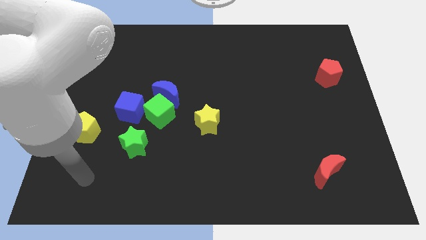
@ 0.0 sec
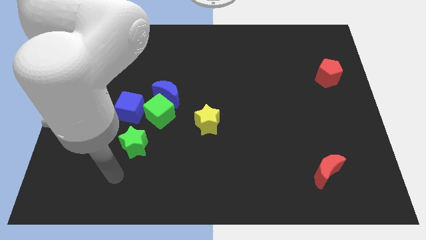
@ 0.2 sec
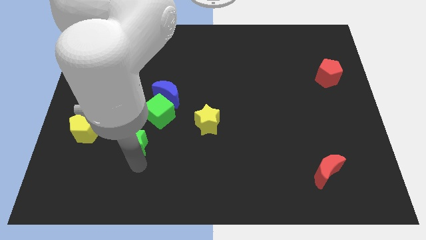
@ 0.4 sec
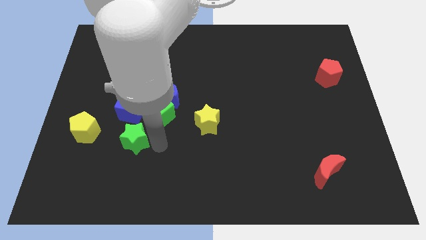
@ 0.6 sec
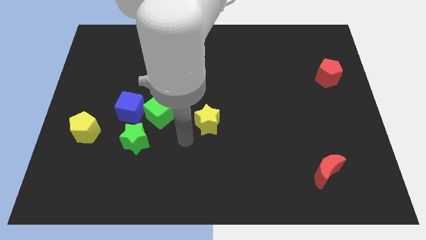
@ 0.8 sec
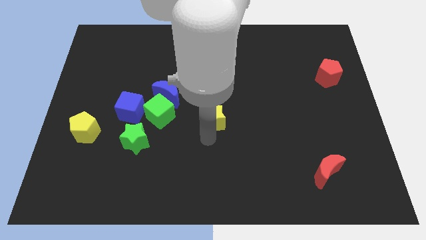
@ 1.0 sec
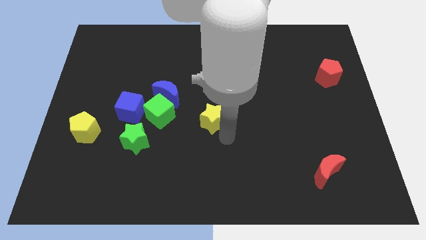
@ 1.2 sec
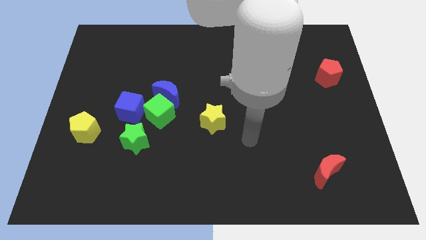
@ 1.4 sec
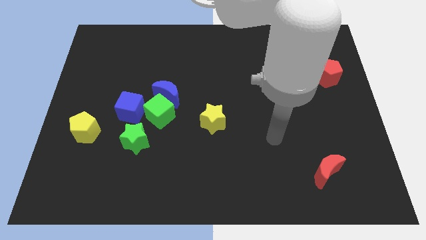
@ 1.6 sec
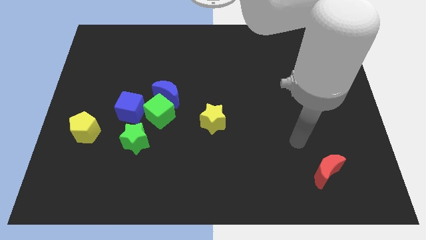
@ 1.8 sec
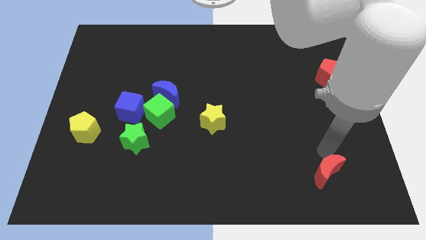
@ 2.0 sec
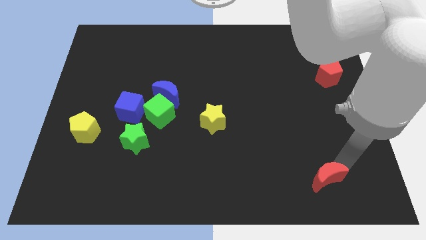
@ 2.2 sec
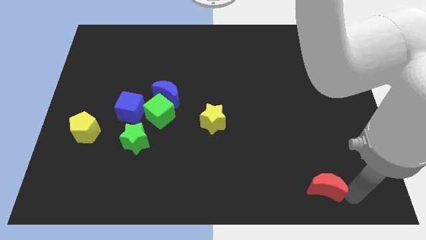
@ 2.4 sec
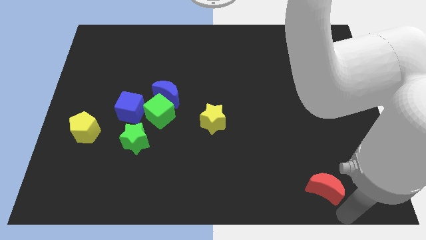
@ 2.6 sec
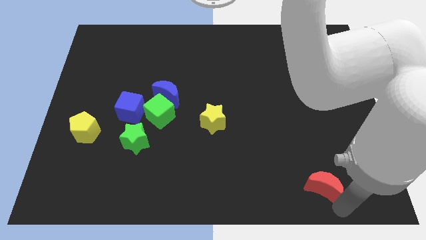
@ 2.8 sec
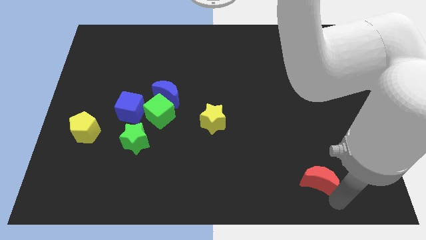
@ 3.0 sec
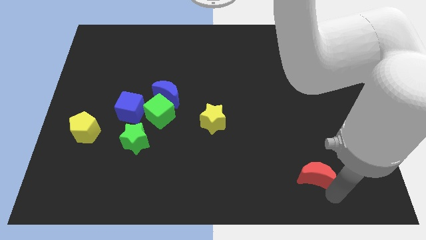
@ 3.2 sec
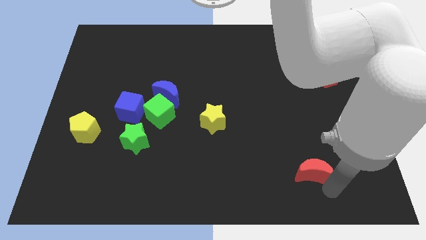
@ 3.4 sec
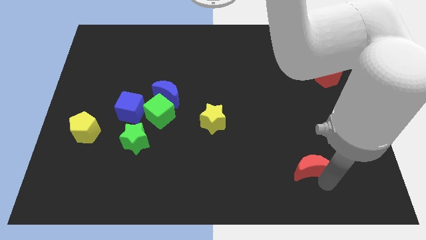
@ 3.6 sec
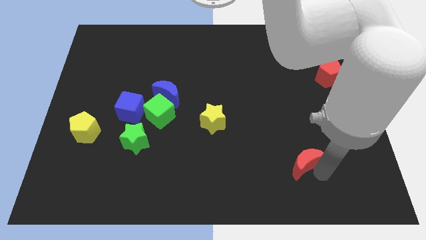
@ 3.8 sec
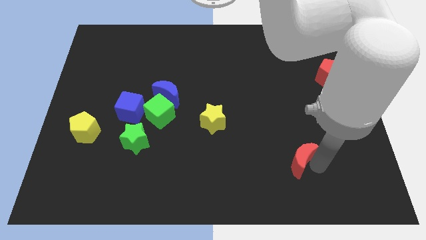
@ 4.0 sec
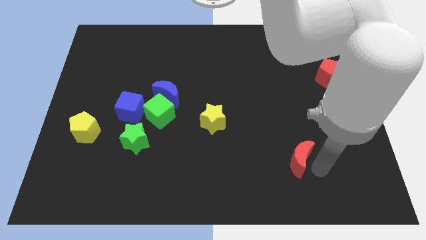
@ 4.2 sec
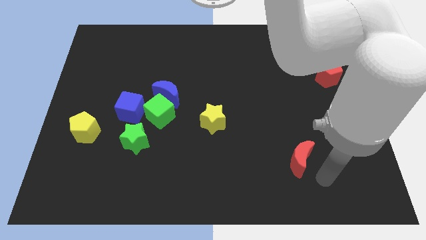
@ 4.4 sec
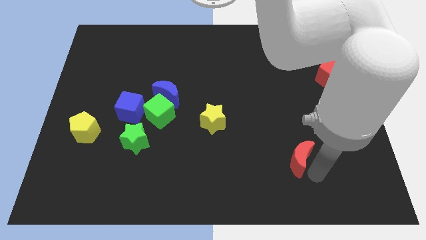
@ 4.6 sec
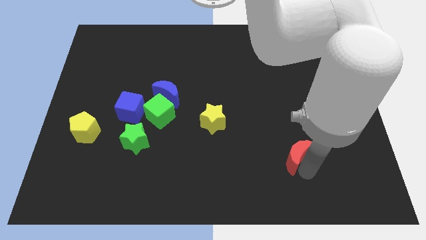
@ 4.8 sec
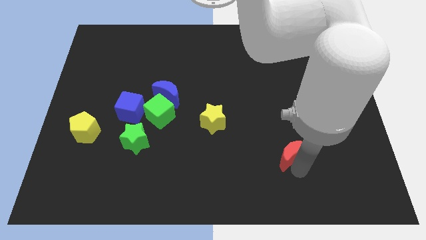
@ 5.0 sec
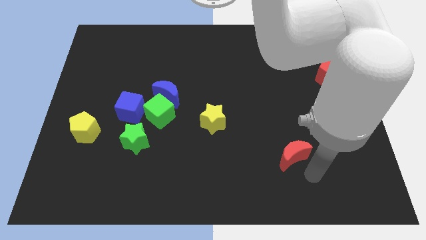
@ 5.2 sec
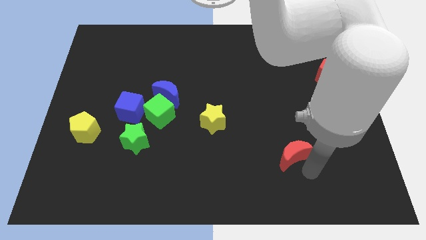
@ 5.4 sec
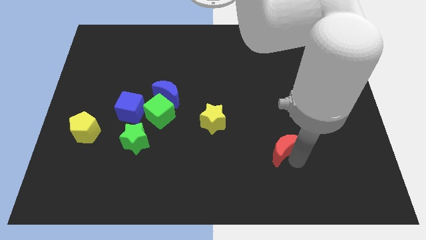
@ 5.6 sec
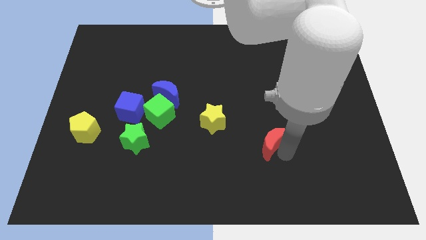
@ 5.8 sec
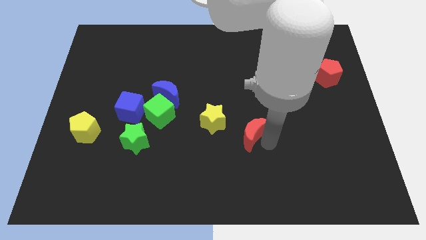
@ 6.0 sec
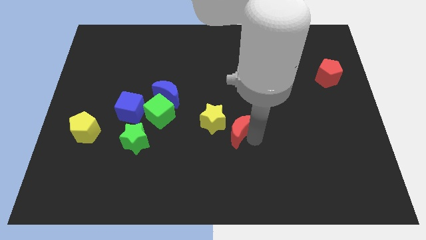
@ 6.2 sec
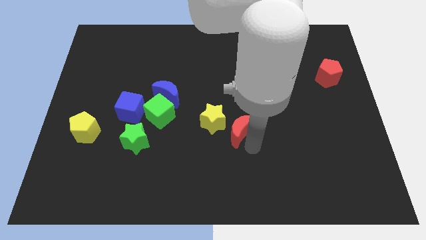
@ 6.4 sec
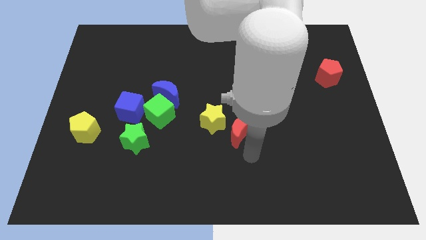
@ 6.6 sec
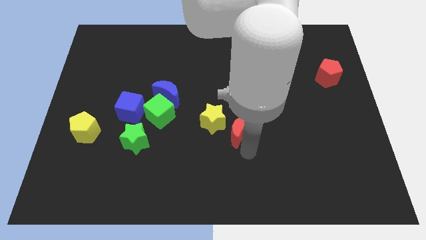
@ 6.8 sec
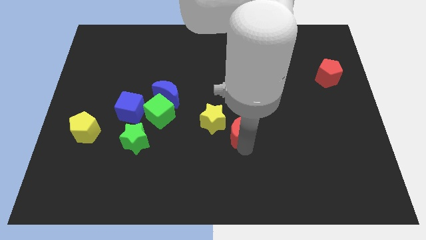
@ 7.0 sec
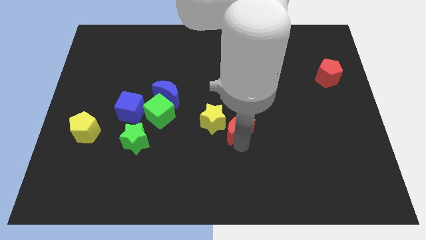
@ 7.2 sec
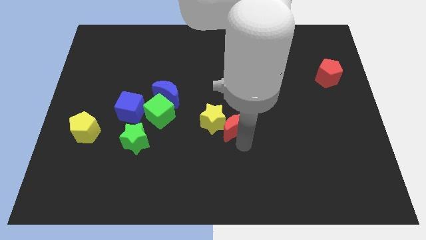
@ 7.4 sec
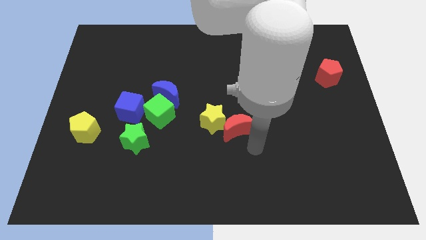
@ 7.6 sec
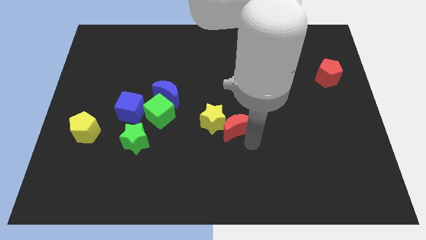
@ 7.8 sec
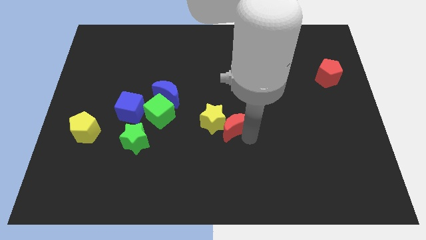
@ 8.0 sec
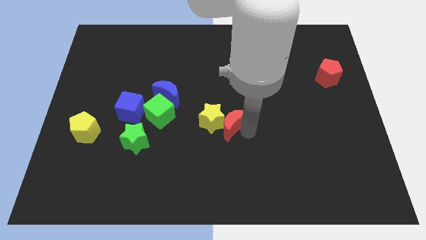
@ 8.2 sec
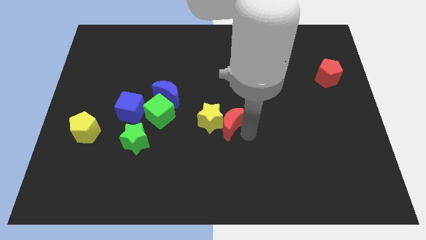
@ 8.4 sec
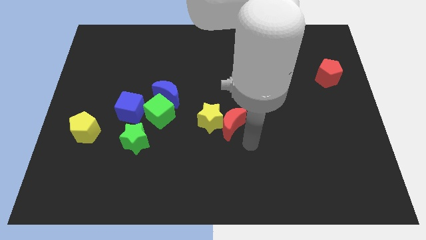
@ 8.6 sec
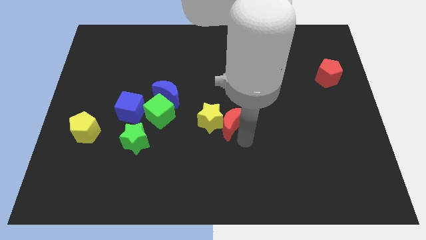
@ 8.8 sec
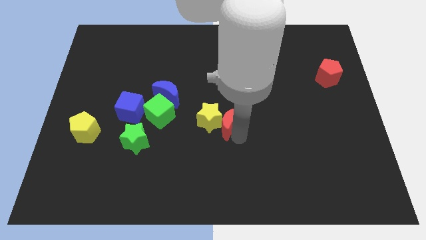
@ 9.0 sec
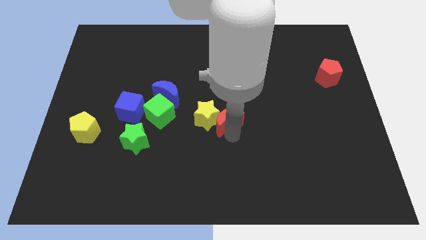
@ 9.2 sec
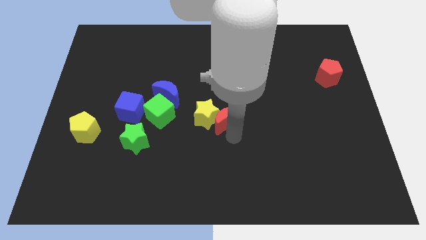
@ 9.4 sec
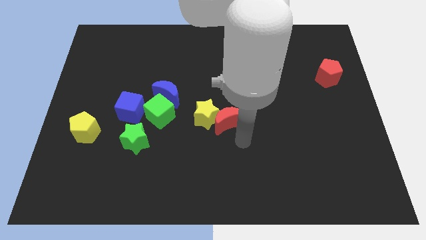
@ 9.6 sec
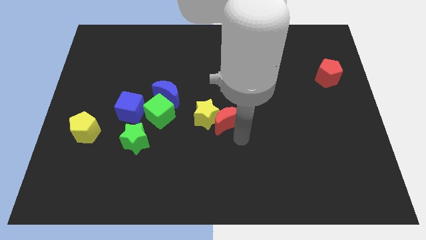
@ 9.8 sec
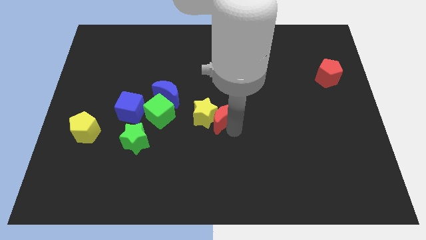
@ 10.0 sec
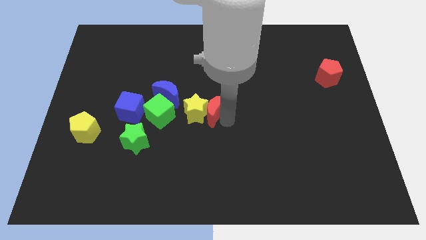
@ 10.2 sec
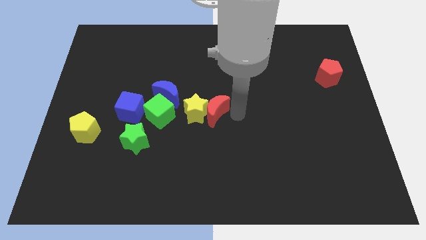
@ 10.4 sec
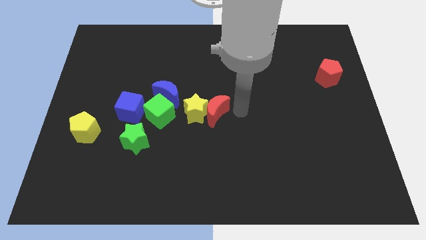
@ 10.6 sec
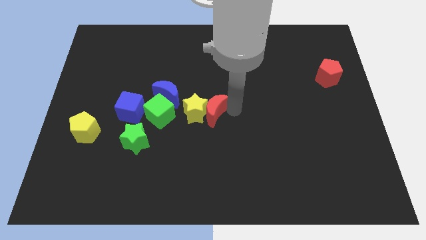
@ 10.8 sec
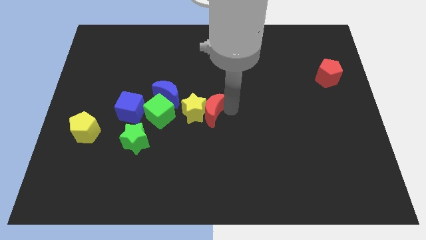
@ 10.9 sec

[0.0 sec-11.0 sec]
put the red moon to the bottom right side of the blue moon

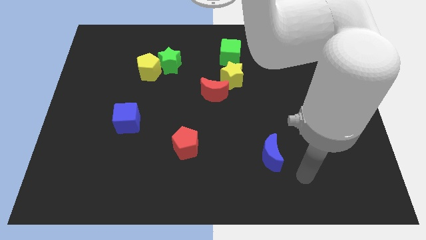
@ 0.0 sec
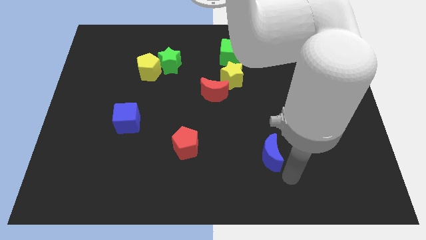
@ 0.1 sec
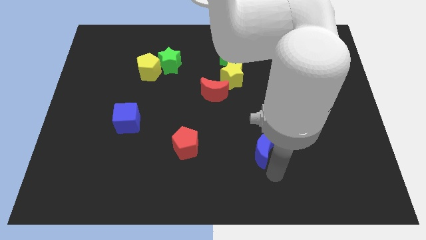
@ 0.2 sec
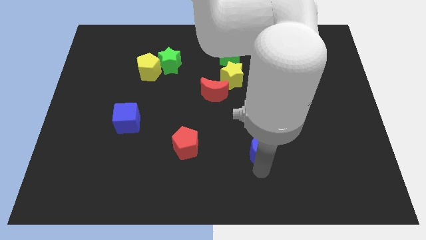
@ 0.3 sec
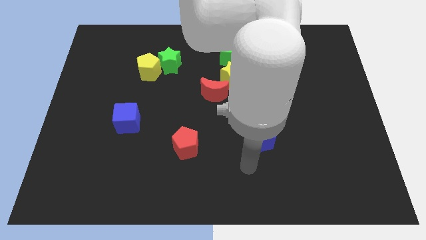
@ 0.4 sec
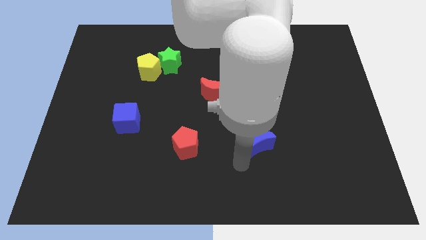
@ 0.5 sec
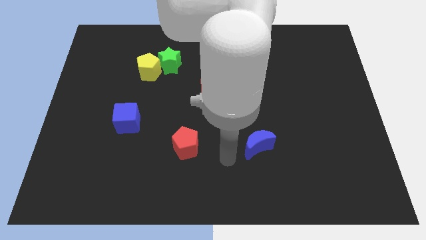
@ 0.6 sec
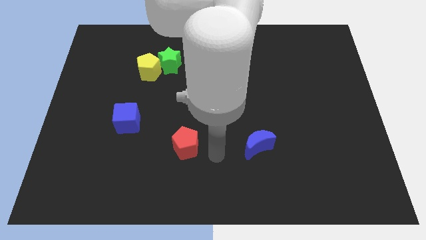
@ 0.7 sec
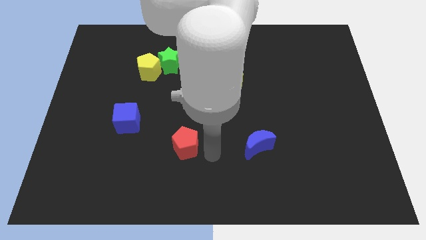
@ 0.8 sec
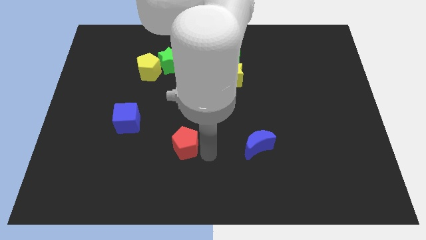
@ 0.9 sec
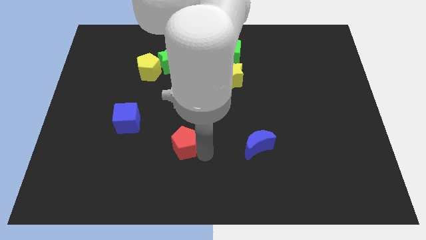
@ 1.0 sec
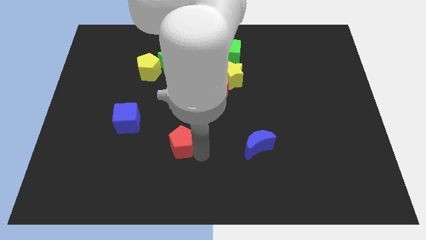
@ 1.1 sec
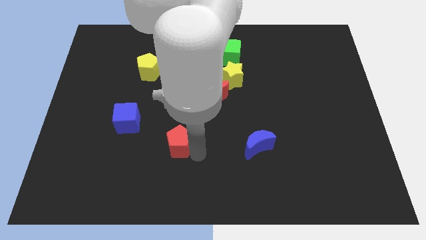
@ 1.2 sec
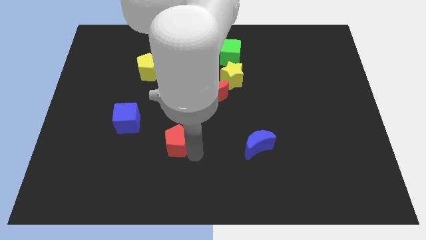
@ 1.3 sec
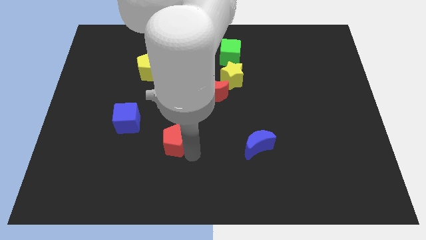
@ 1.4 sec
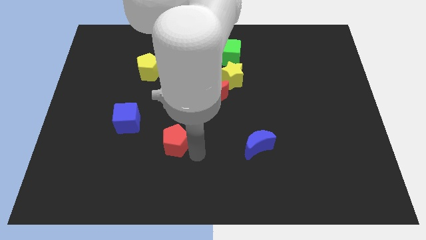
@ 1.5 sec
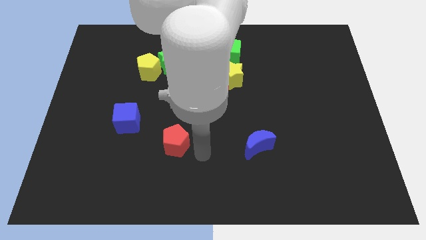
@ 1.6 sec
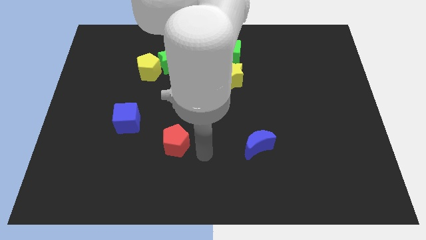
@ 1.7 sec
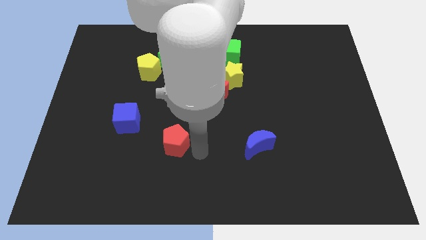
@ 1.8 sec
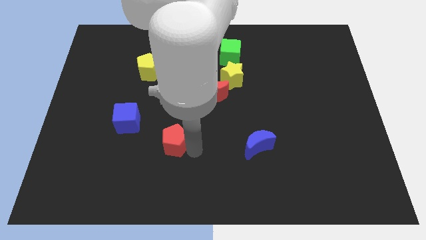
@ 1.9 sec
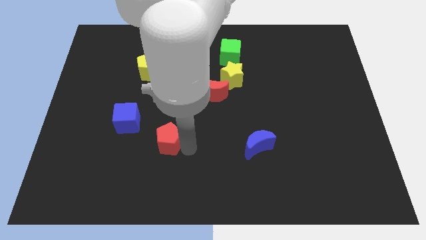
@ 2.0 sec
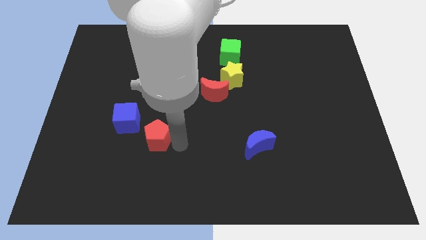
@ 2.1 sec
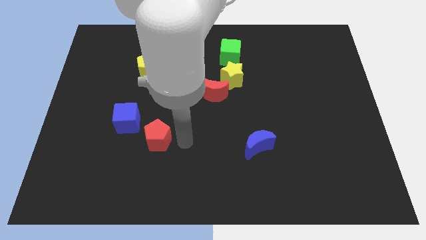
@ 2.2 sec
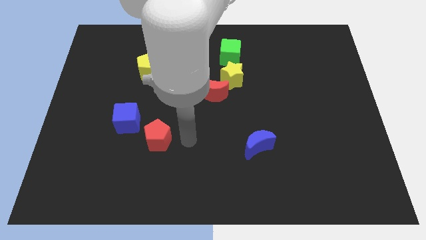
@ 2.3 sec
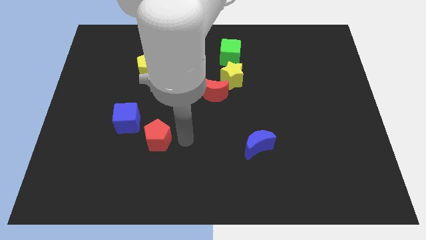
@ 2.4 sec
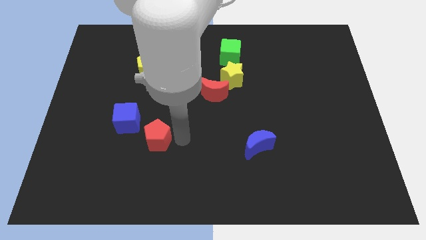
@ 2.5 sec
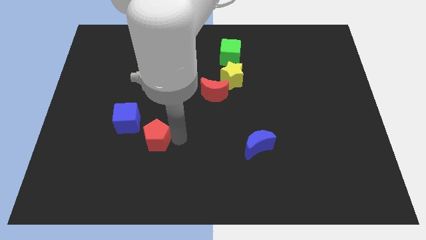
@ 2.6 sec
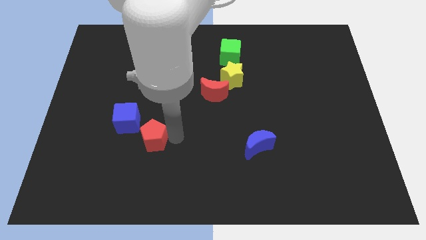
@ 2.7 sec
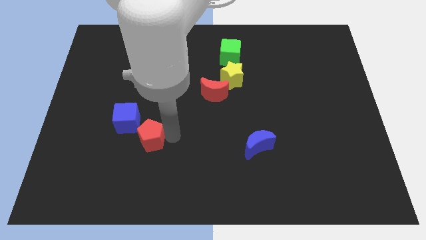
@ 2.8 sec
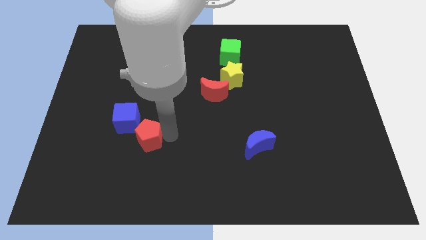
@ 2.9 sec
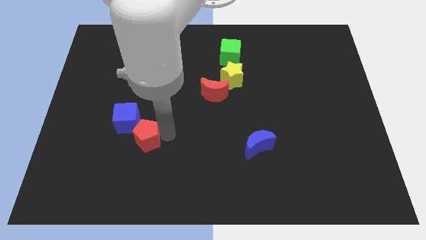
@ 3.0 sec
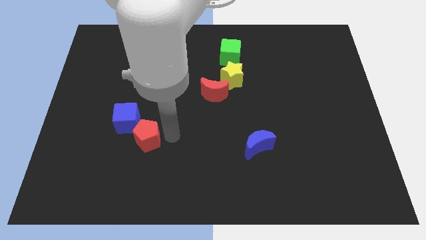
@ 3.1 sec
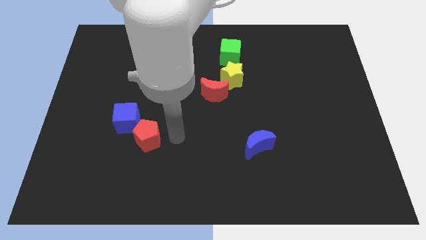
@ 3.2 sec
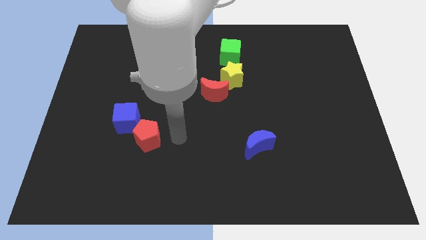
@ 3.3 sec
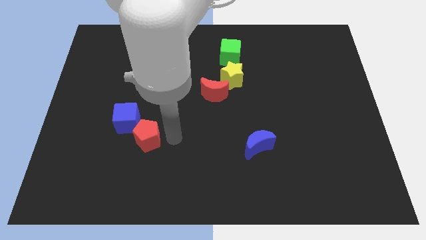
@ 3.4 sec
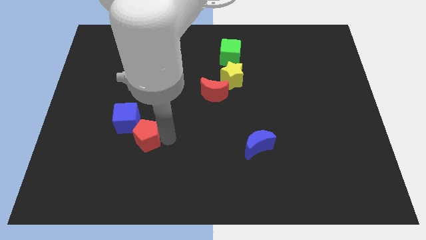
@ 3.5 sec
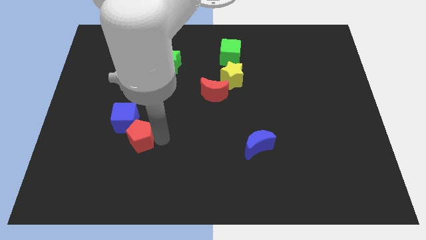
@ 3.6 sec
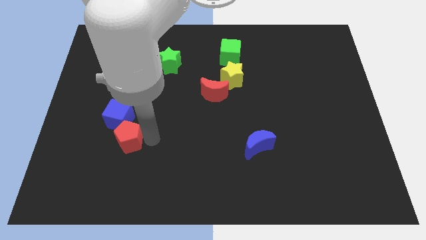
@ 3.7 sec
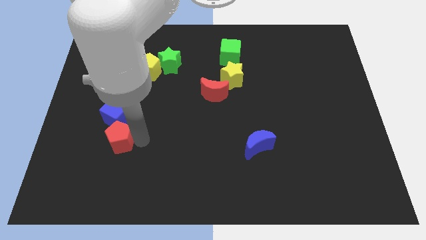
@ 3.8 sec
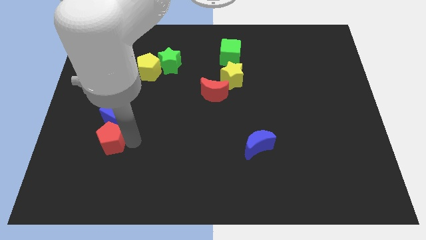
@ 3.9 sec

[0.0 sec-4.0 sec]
put the red pentagon to the bottom left side of the blue cube
